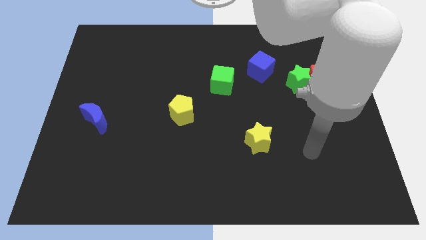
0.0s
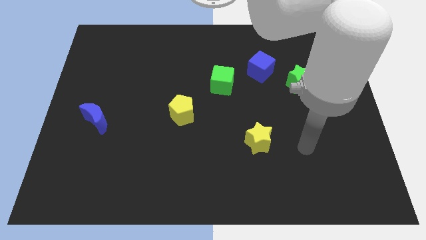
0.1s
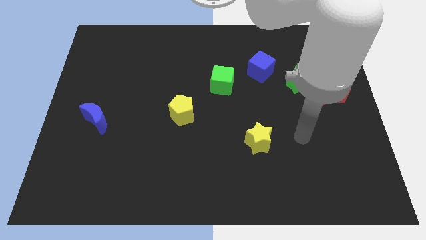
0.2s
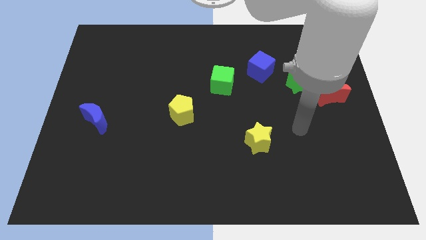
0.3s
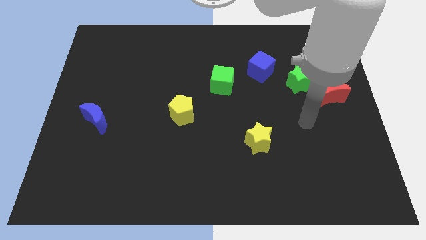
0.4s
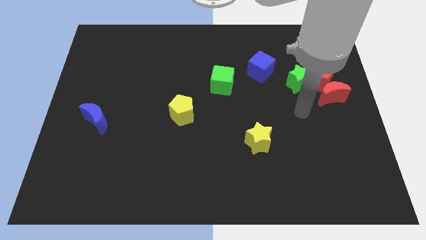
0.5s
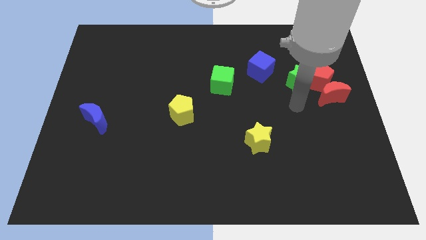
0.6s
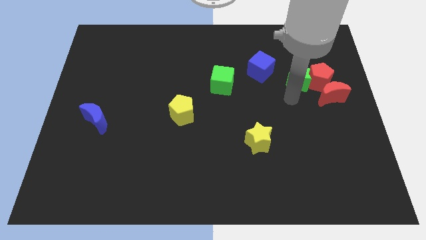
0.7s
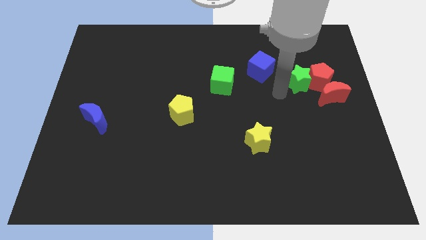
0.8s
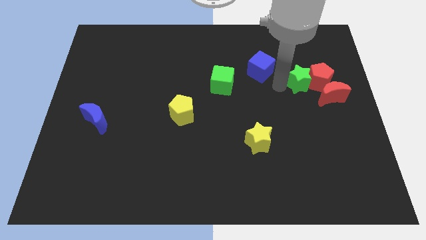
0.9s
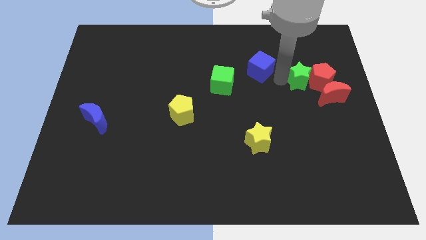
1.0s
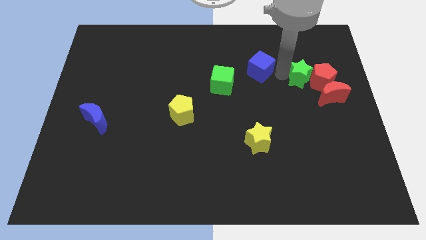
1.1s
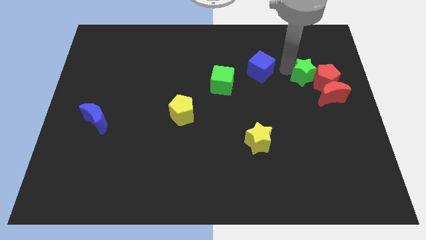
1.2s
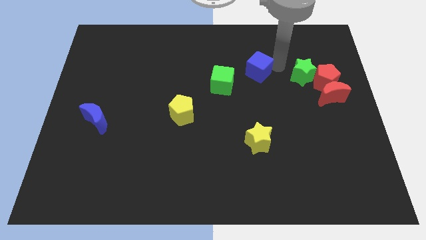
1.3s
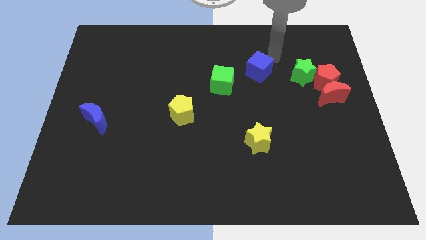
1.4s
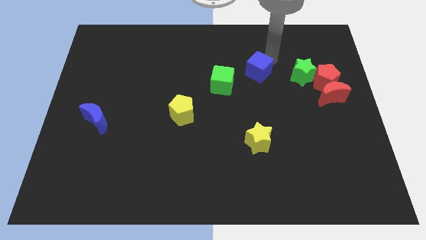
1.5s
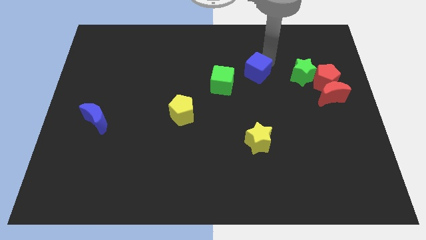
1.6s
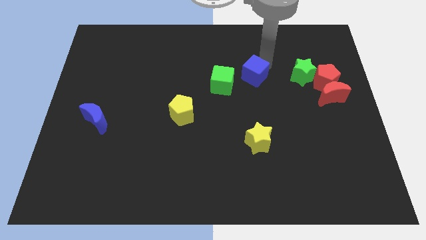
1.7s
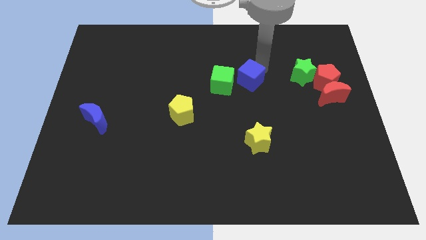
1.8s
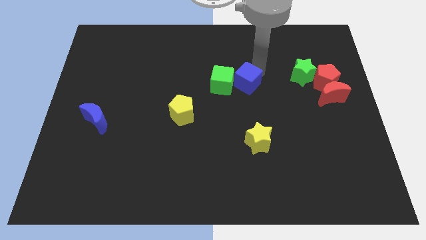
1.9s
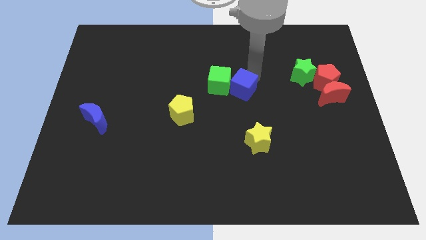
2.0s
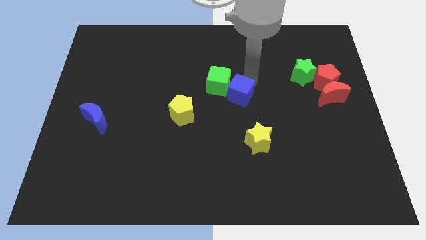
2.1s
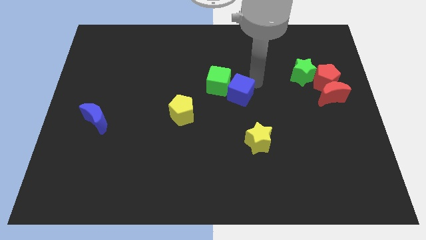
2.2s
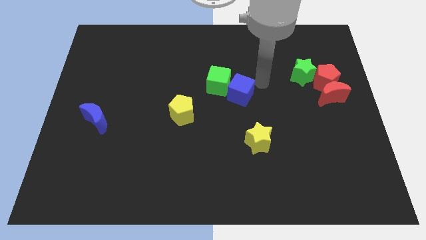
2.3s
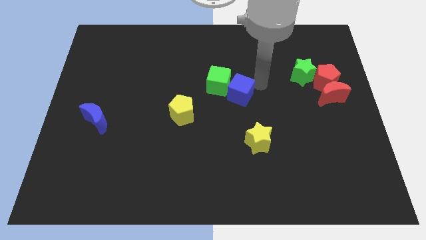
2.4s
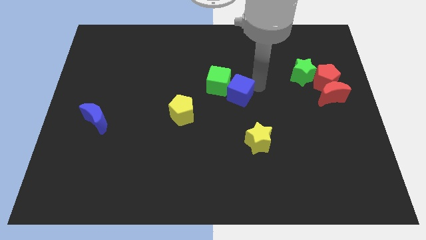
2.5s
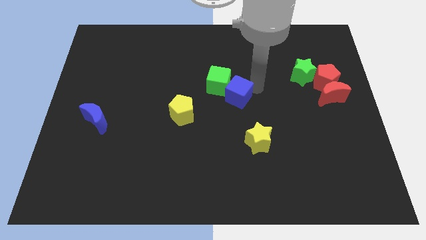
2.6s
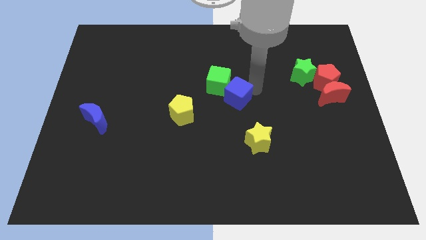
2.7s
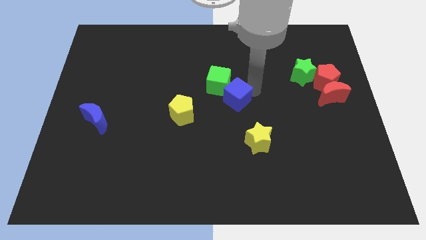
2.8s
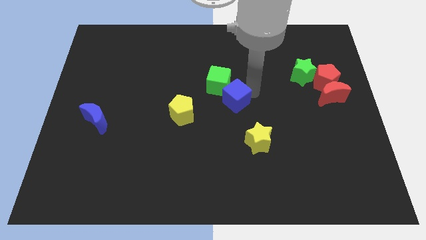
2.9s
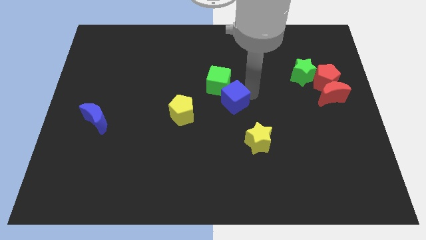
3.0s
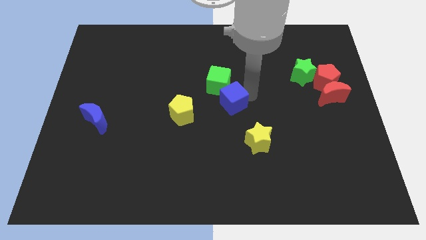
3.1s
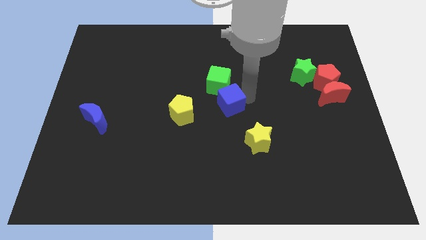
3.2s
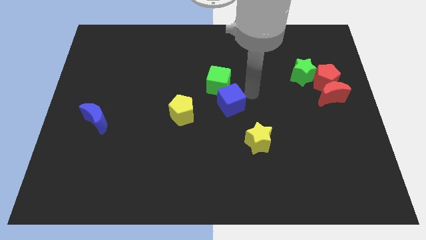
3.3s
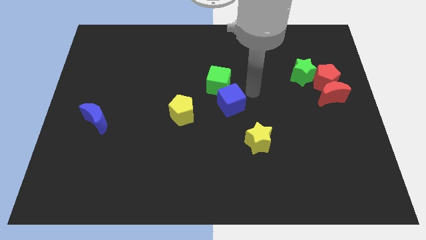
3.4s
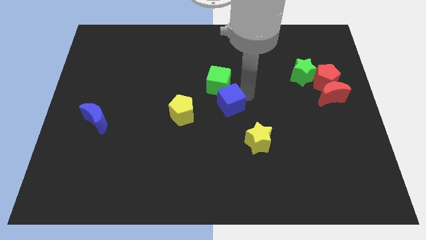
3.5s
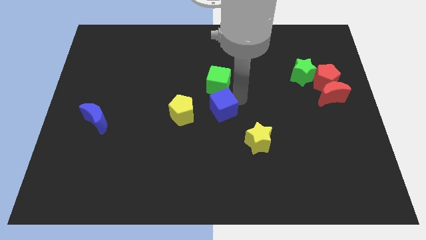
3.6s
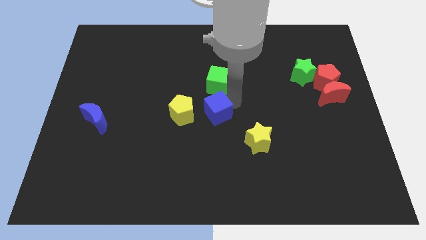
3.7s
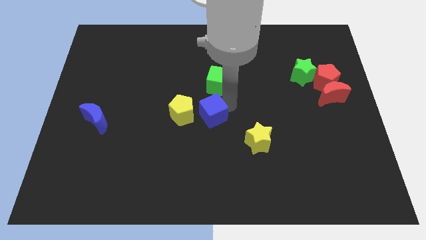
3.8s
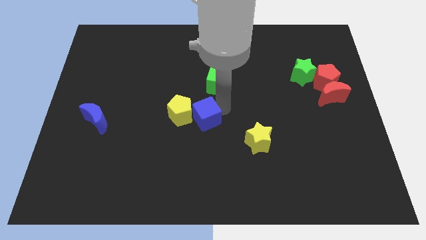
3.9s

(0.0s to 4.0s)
slide the blue cube diagonally downwards and left

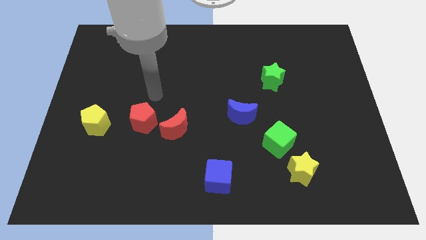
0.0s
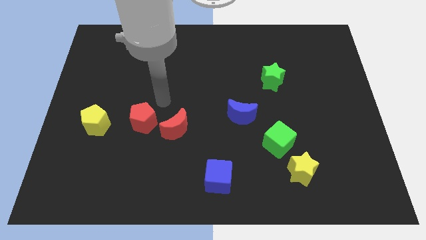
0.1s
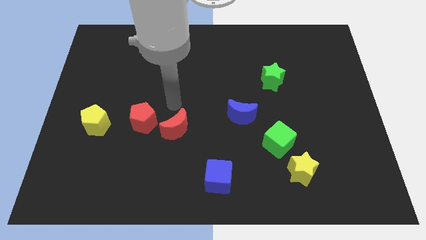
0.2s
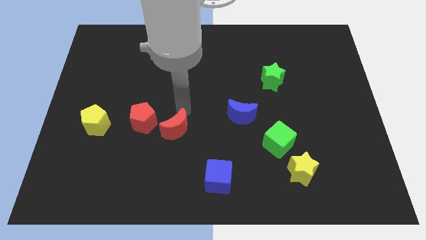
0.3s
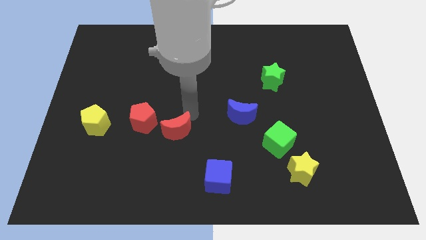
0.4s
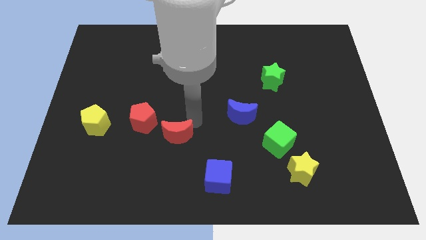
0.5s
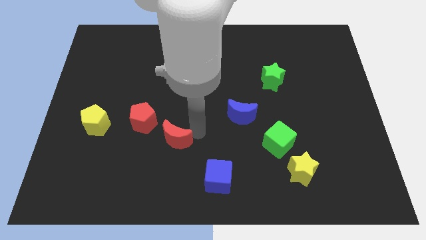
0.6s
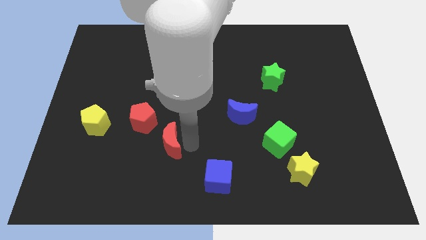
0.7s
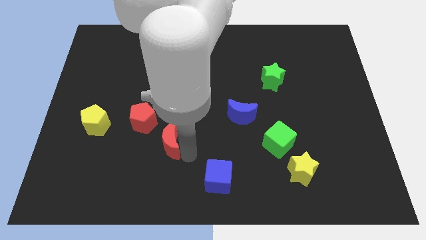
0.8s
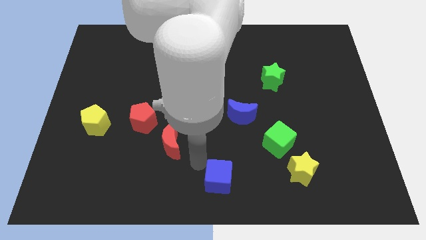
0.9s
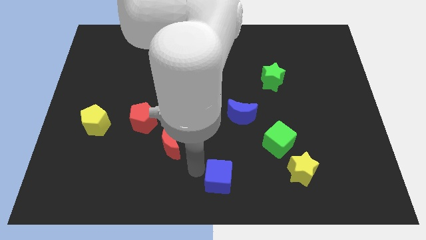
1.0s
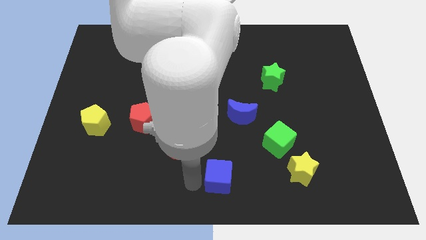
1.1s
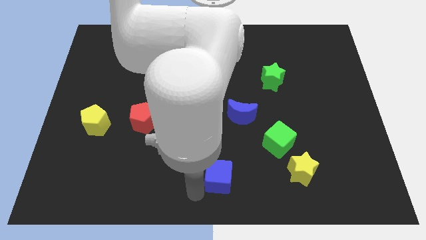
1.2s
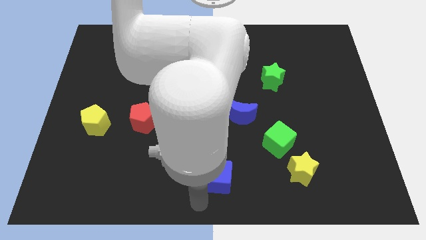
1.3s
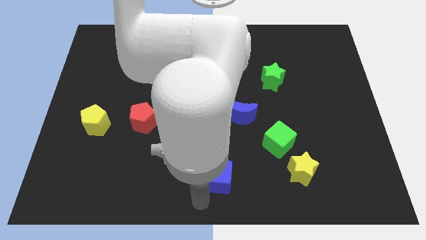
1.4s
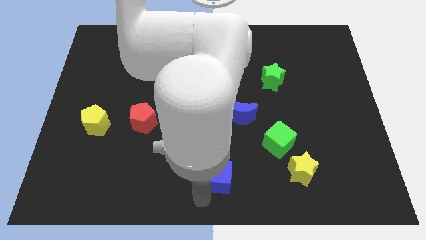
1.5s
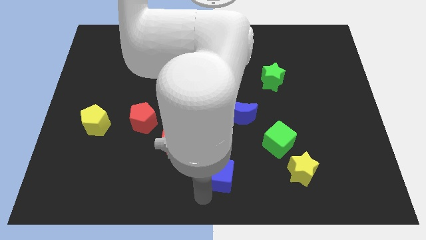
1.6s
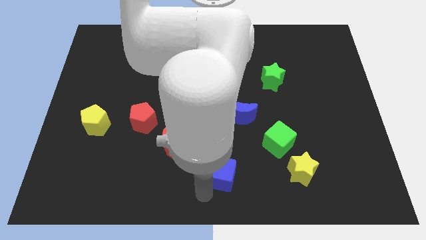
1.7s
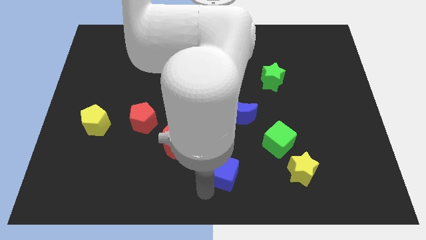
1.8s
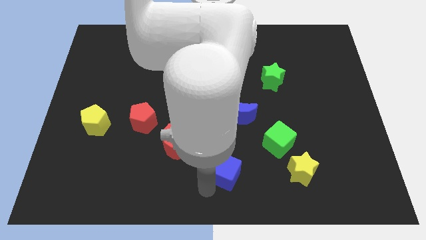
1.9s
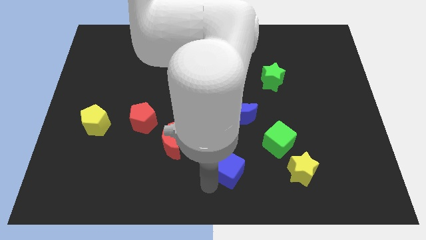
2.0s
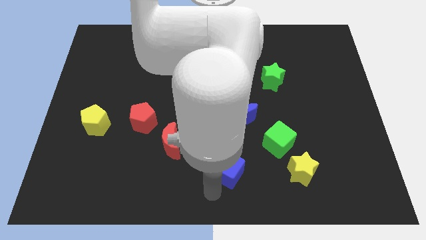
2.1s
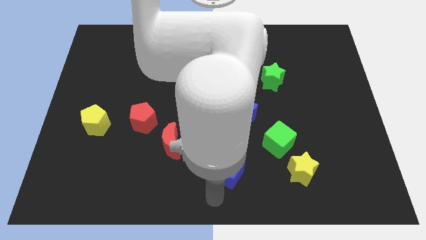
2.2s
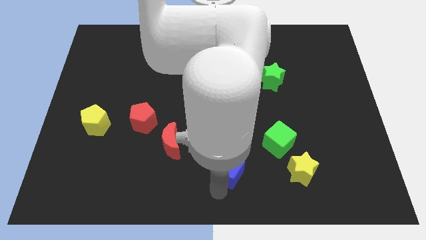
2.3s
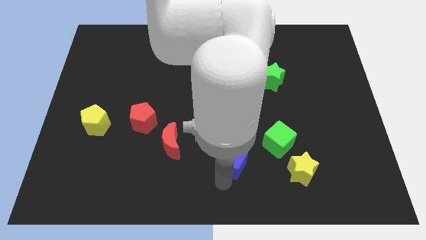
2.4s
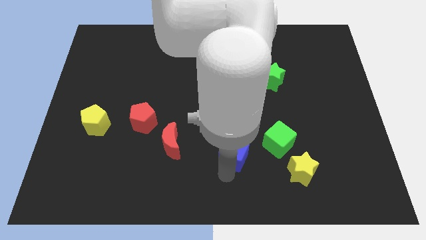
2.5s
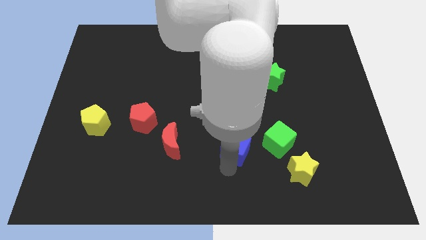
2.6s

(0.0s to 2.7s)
slightly push the blue cube up and to the right

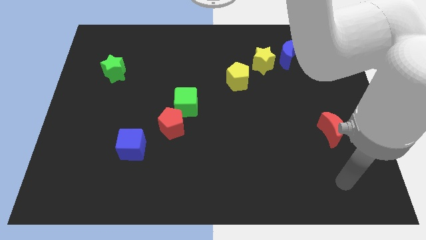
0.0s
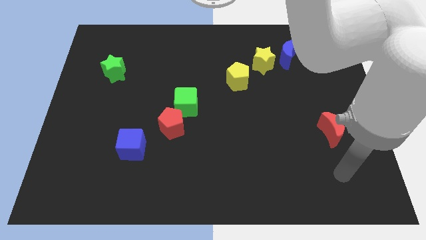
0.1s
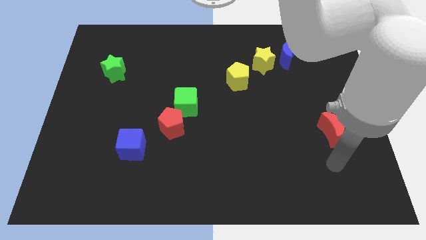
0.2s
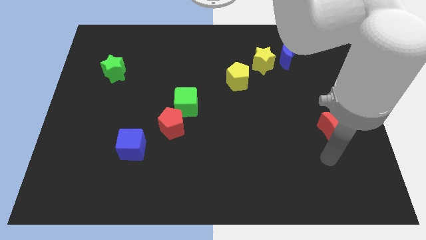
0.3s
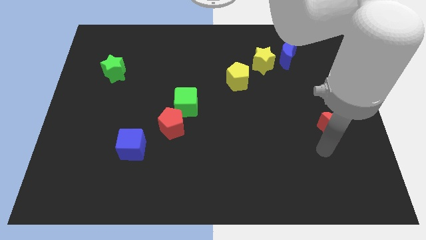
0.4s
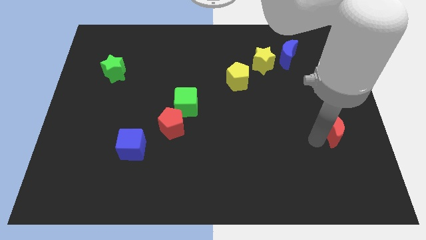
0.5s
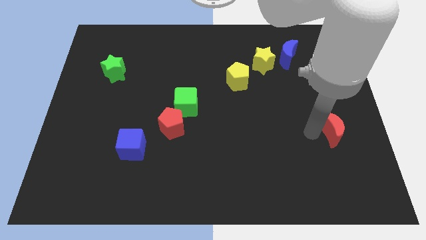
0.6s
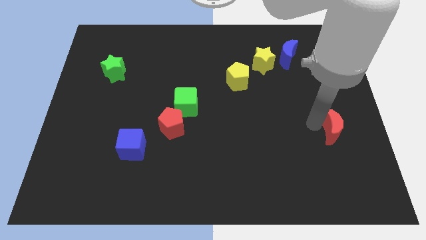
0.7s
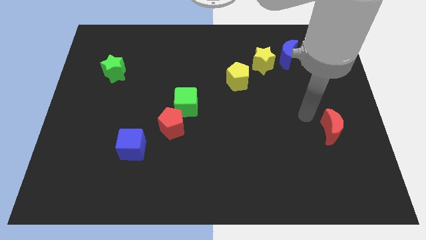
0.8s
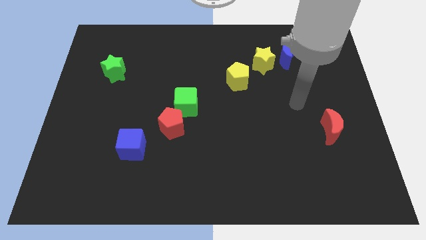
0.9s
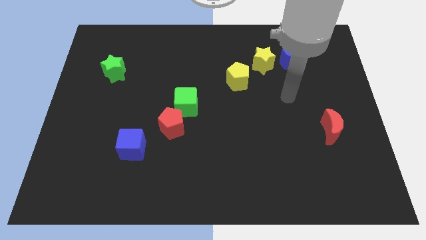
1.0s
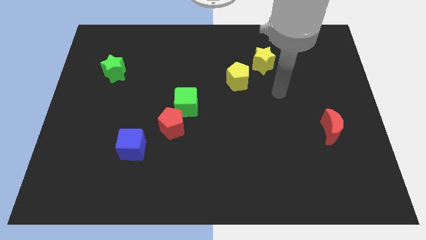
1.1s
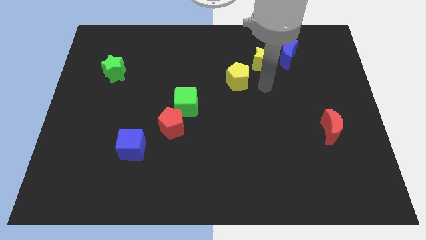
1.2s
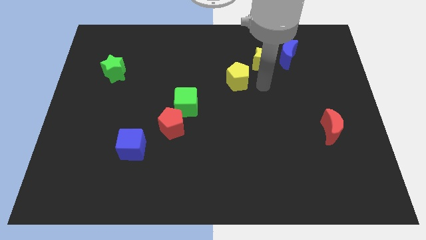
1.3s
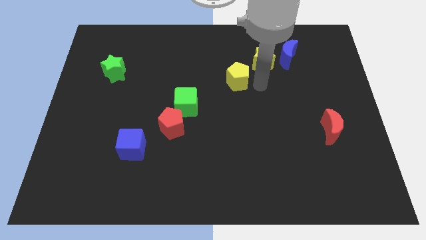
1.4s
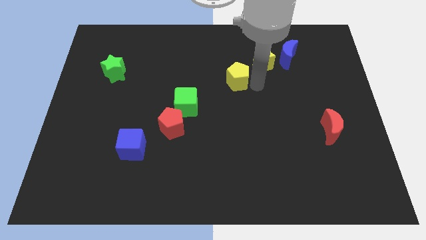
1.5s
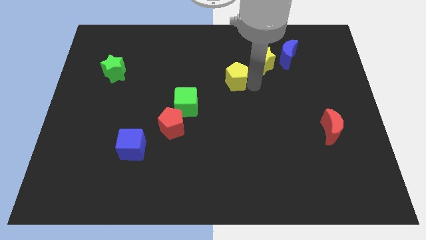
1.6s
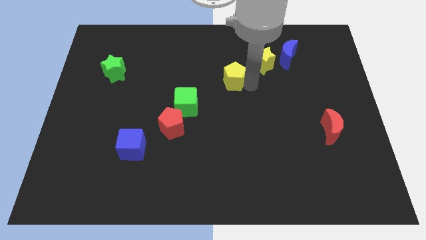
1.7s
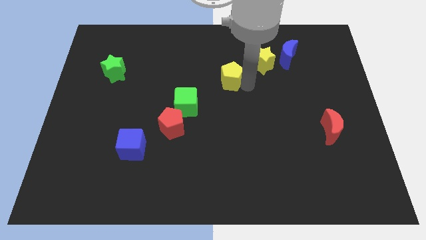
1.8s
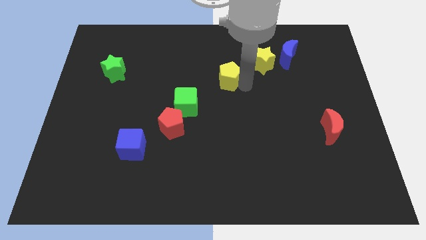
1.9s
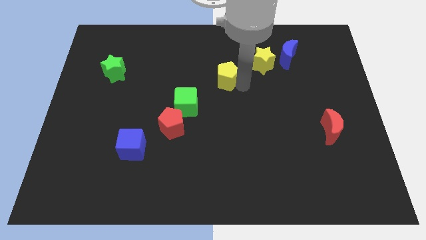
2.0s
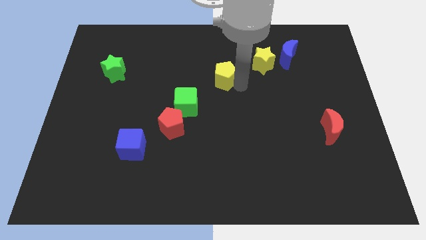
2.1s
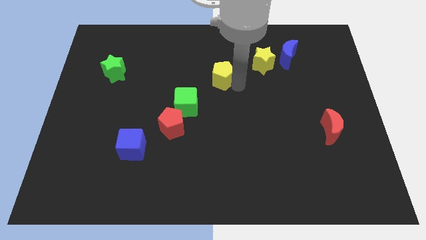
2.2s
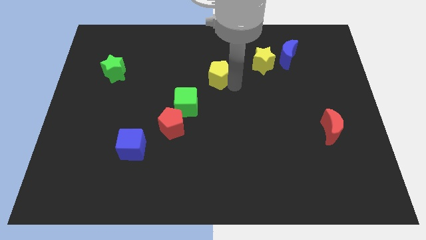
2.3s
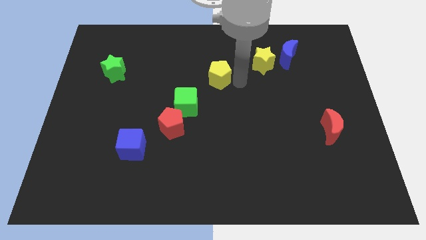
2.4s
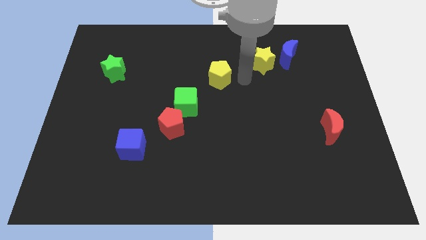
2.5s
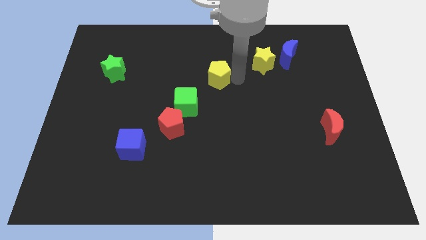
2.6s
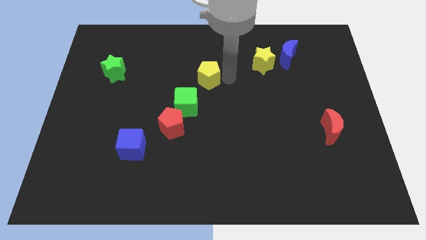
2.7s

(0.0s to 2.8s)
slightly push the yellow pentagon left
